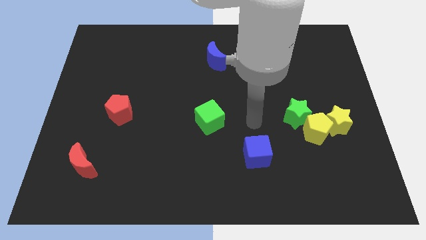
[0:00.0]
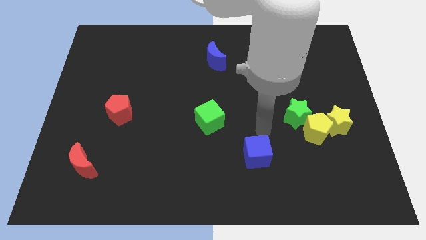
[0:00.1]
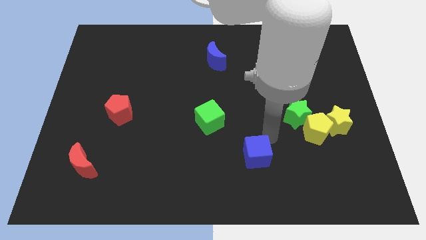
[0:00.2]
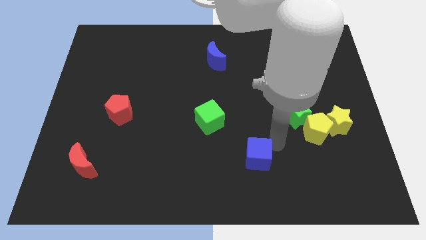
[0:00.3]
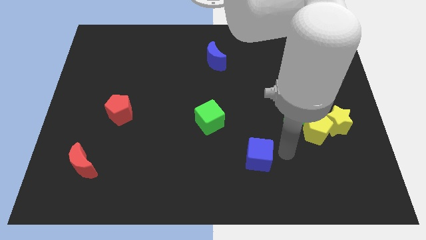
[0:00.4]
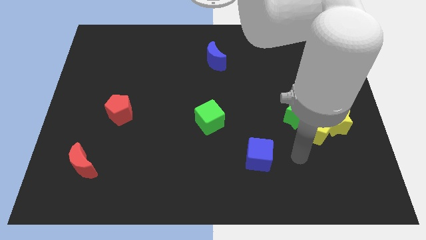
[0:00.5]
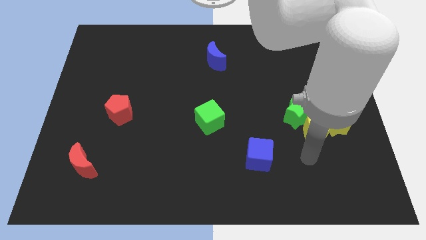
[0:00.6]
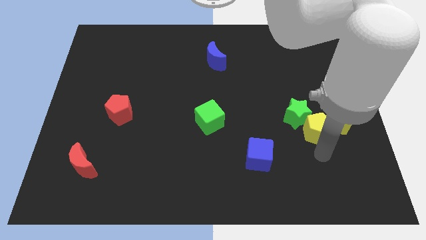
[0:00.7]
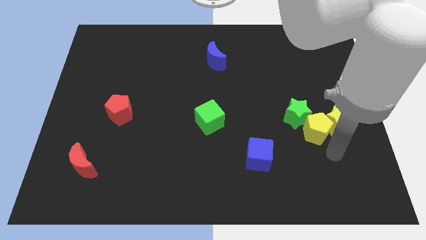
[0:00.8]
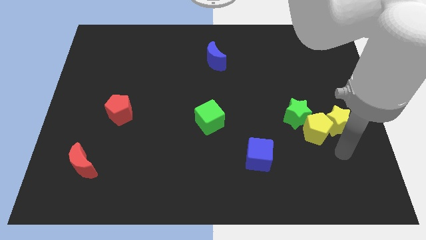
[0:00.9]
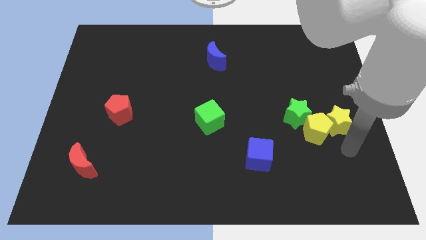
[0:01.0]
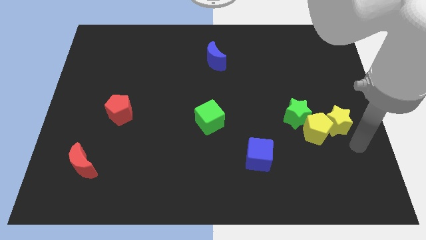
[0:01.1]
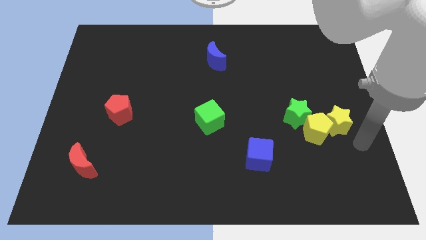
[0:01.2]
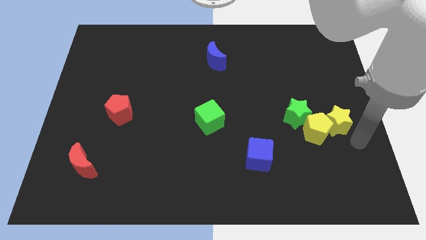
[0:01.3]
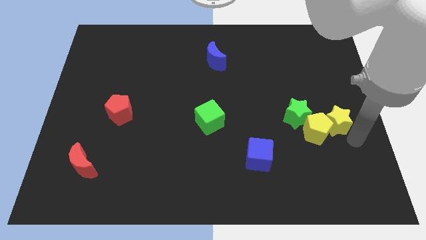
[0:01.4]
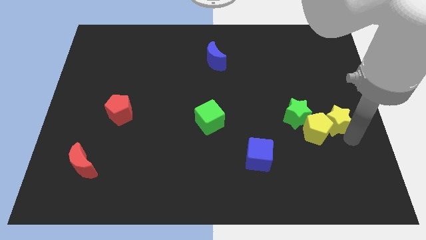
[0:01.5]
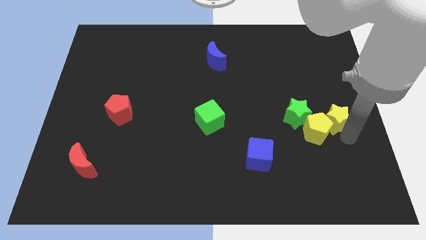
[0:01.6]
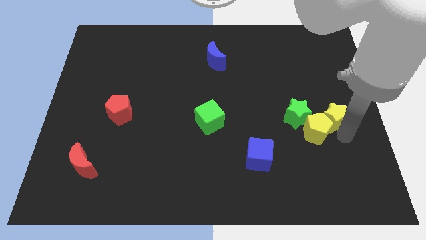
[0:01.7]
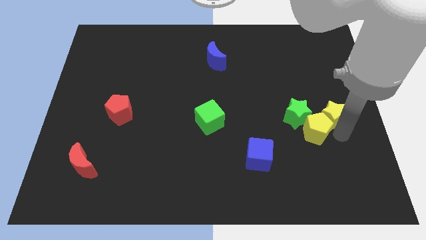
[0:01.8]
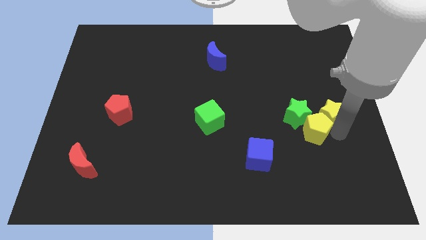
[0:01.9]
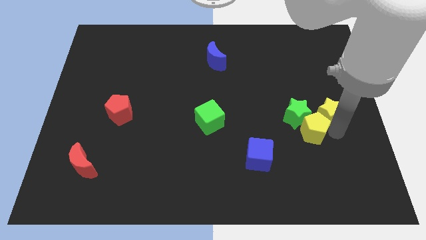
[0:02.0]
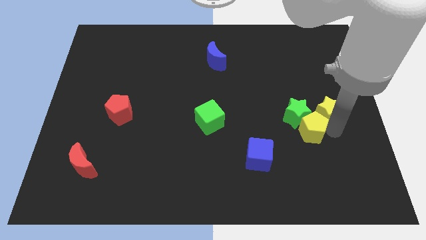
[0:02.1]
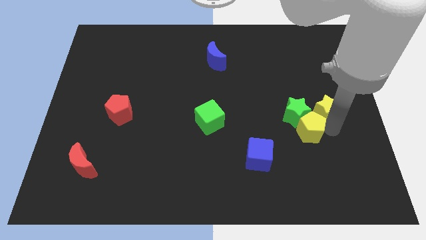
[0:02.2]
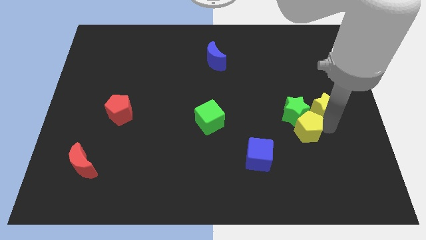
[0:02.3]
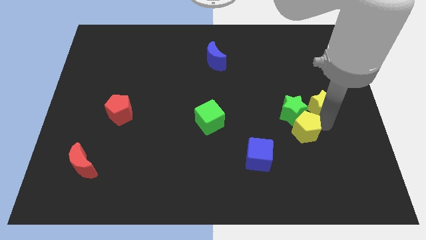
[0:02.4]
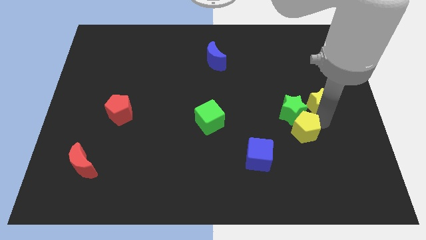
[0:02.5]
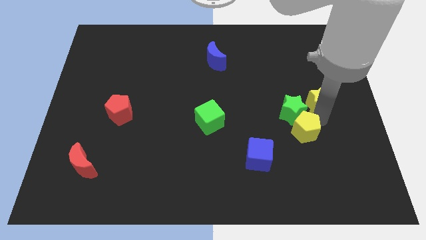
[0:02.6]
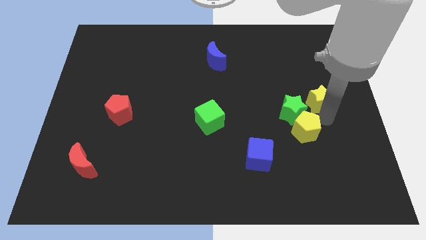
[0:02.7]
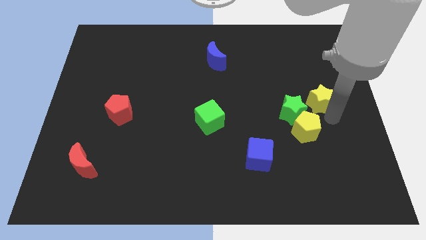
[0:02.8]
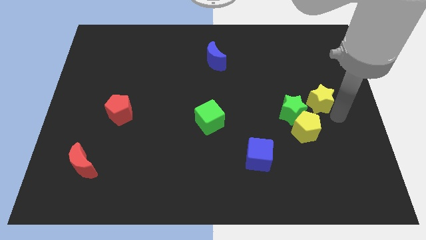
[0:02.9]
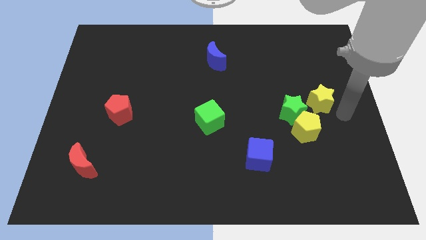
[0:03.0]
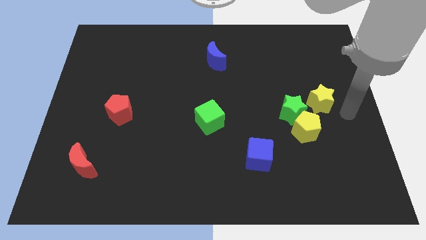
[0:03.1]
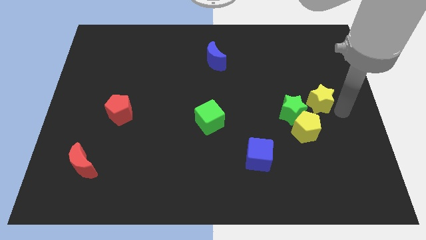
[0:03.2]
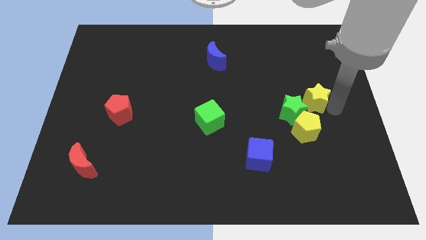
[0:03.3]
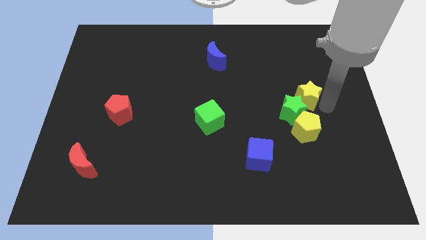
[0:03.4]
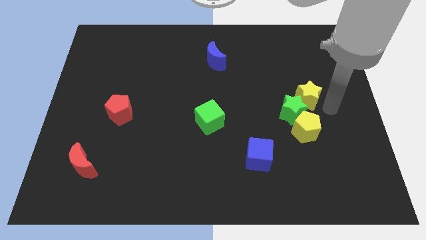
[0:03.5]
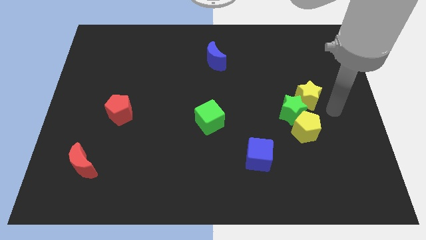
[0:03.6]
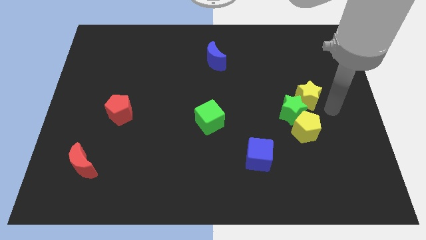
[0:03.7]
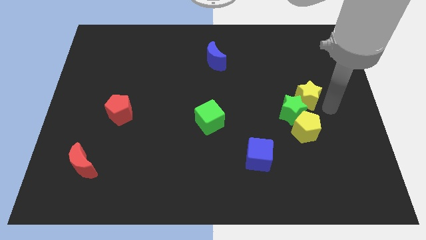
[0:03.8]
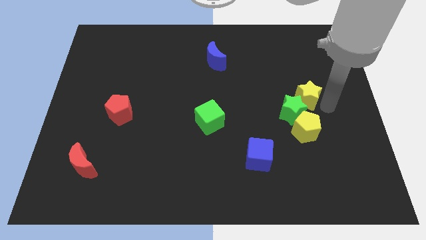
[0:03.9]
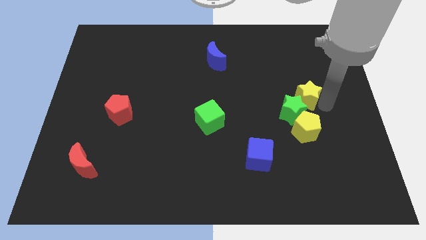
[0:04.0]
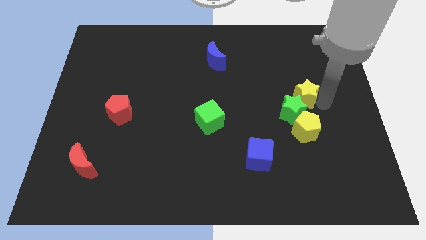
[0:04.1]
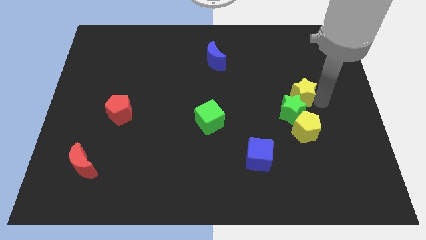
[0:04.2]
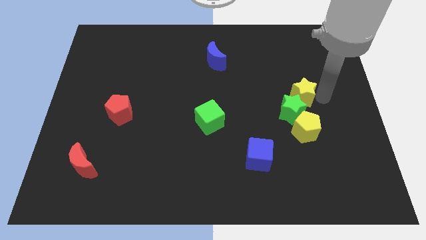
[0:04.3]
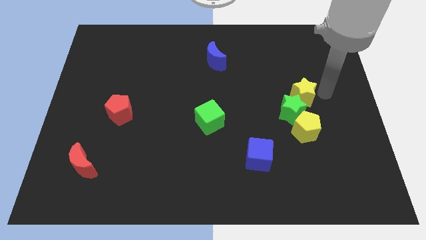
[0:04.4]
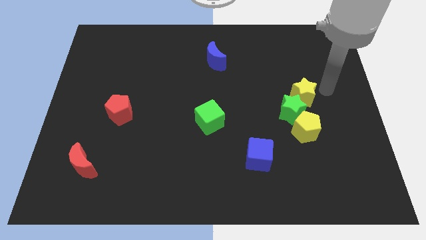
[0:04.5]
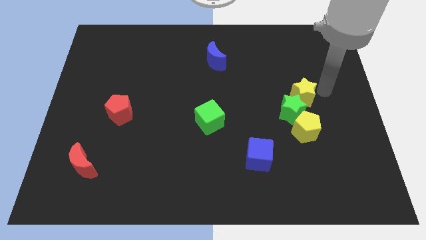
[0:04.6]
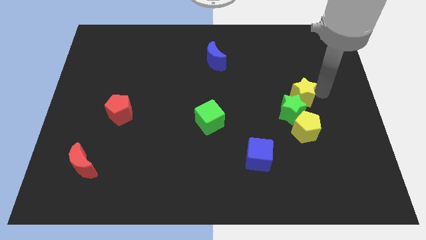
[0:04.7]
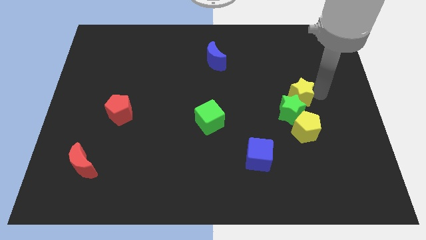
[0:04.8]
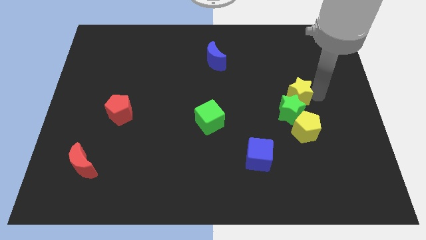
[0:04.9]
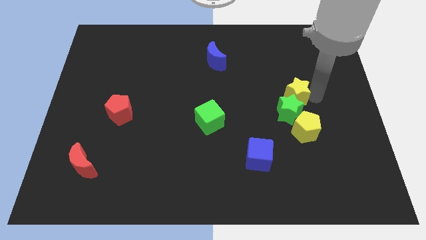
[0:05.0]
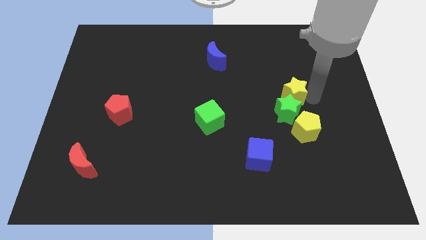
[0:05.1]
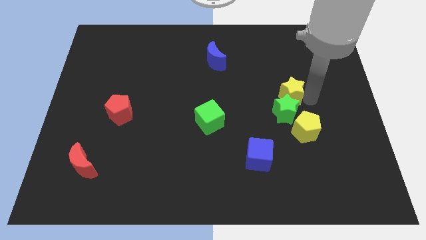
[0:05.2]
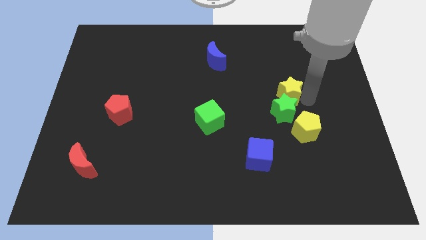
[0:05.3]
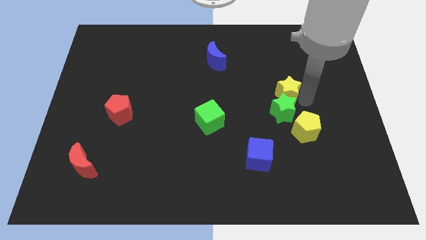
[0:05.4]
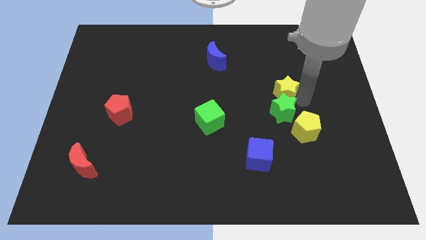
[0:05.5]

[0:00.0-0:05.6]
move the yellow star a little to the left

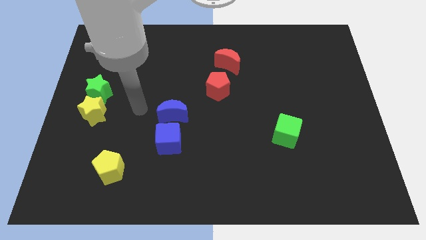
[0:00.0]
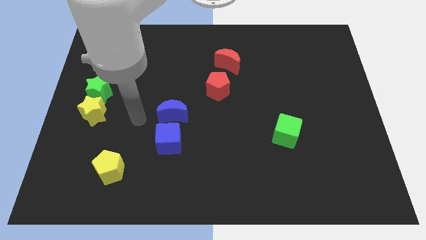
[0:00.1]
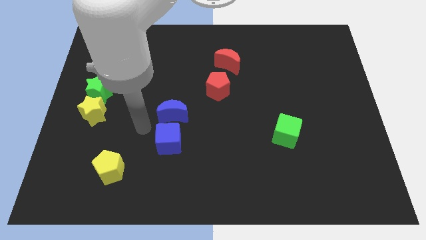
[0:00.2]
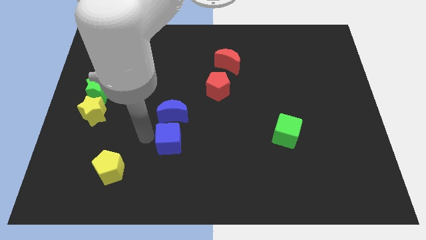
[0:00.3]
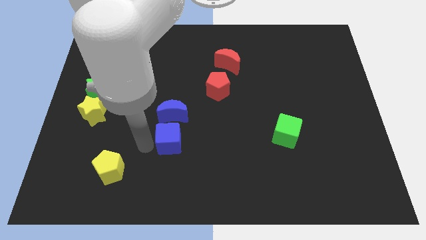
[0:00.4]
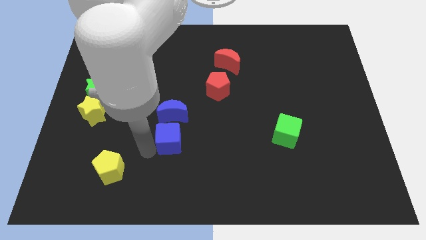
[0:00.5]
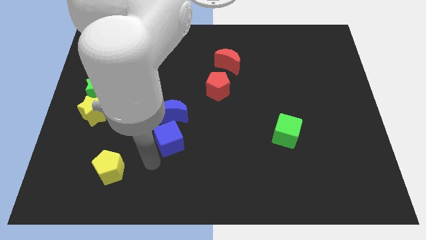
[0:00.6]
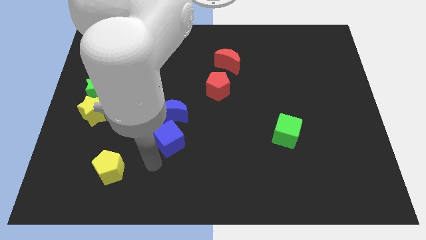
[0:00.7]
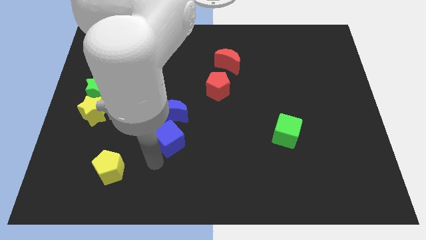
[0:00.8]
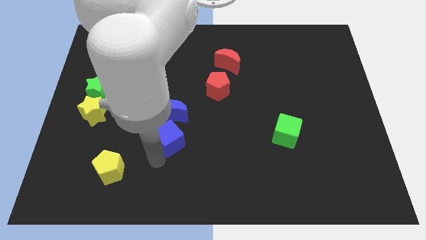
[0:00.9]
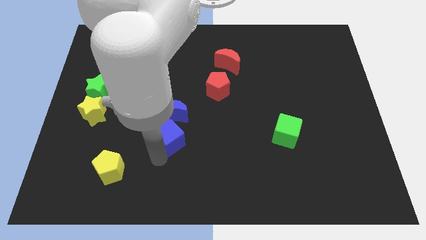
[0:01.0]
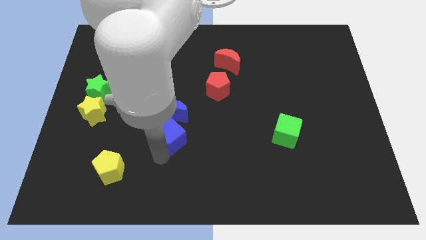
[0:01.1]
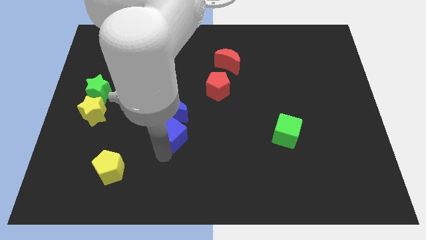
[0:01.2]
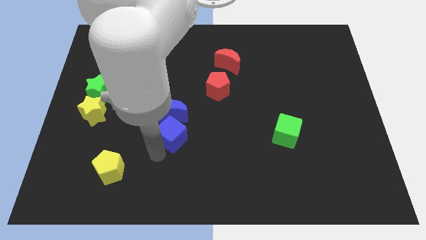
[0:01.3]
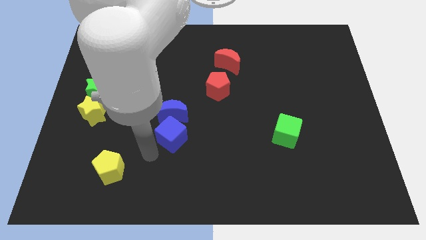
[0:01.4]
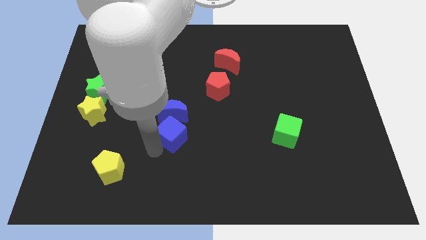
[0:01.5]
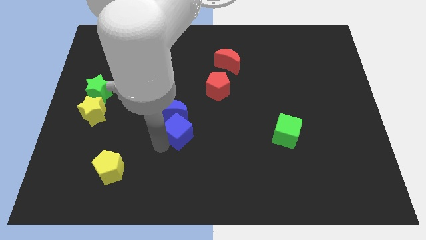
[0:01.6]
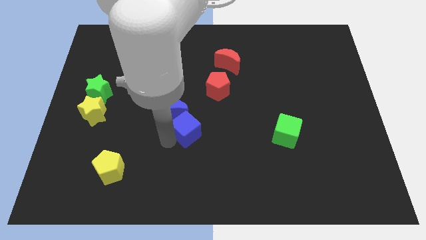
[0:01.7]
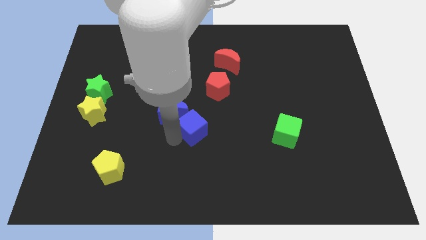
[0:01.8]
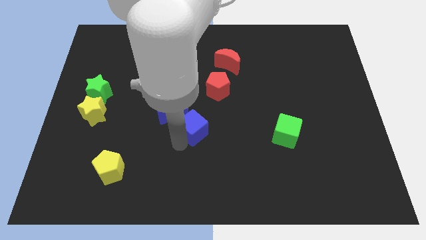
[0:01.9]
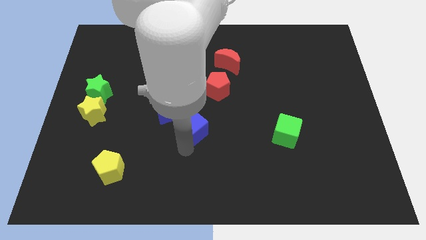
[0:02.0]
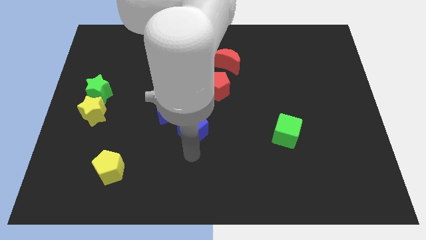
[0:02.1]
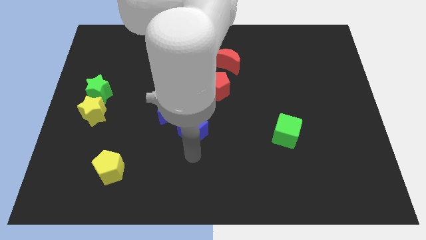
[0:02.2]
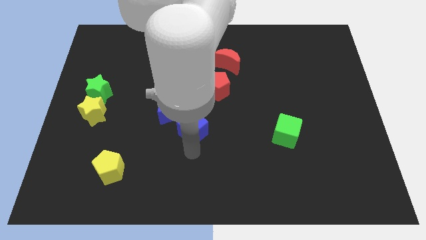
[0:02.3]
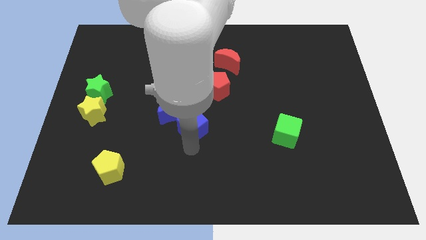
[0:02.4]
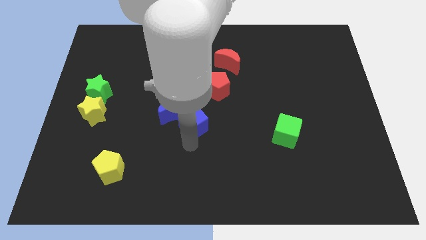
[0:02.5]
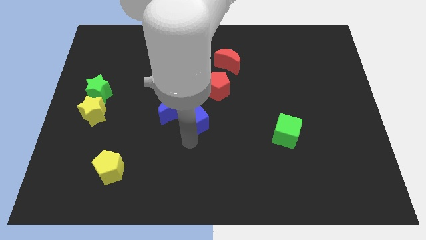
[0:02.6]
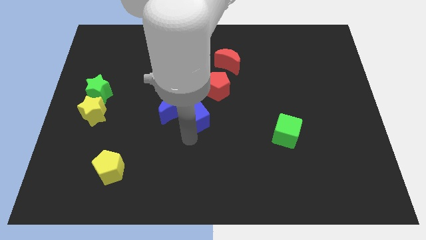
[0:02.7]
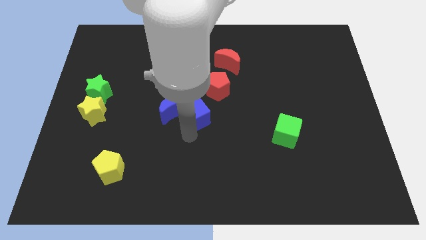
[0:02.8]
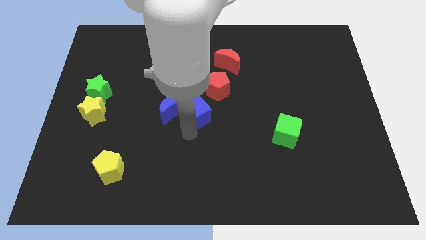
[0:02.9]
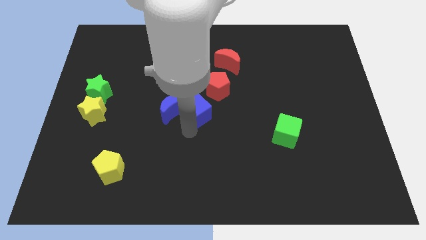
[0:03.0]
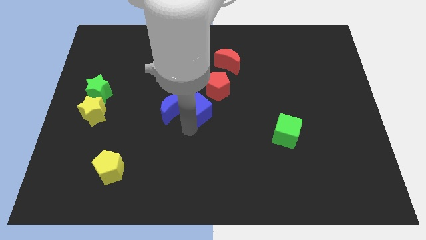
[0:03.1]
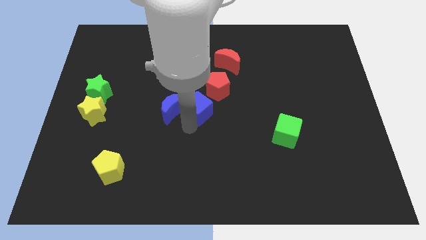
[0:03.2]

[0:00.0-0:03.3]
move the blue cube upwards a little bit
